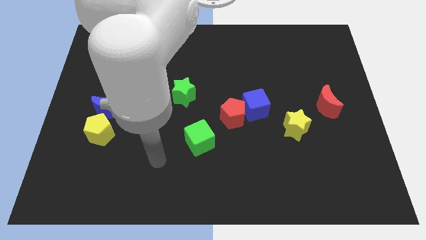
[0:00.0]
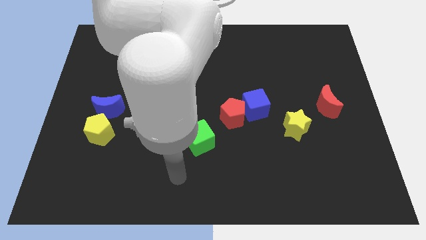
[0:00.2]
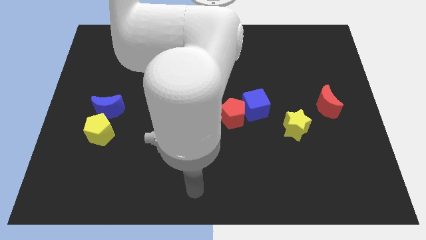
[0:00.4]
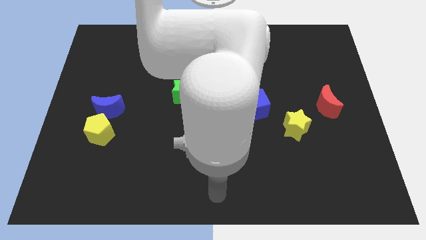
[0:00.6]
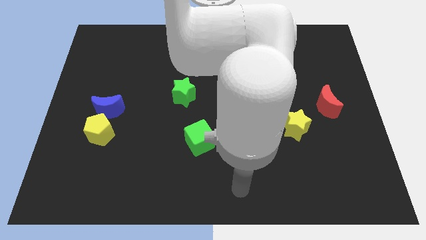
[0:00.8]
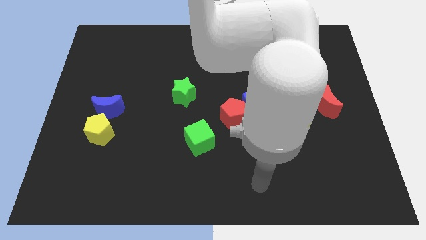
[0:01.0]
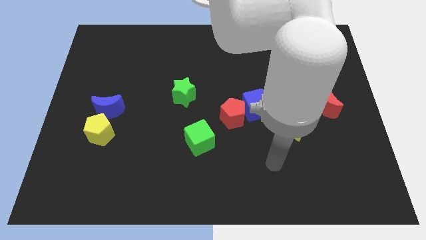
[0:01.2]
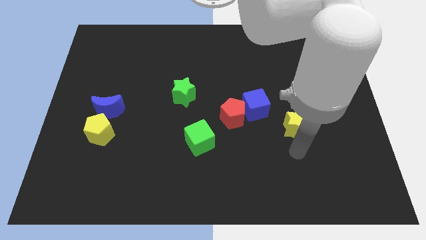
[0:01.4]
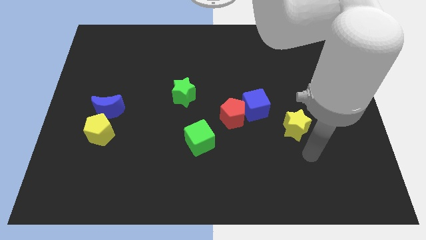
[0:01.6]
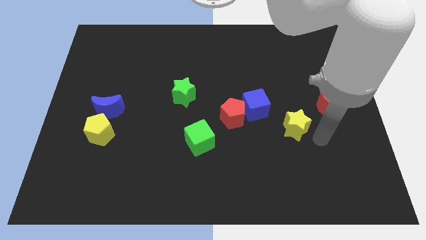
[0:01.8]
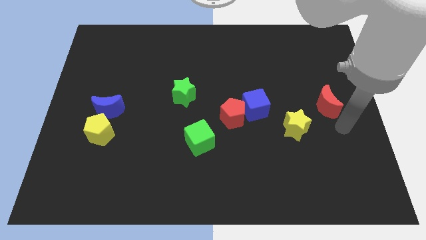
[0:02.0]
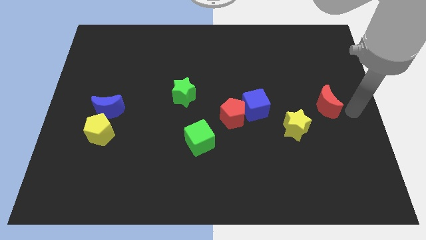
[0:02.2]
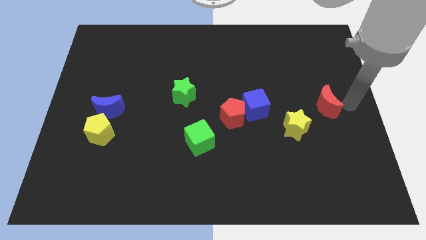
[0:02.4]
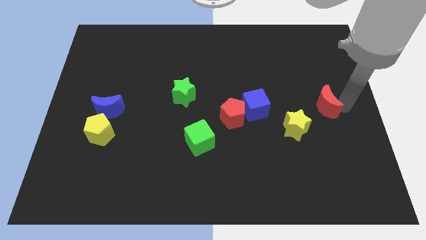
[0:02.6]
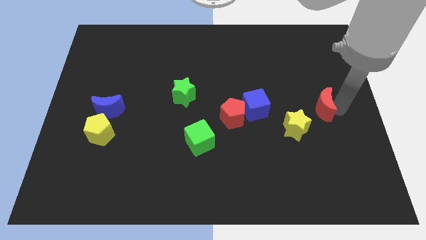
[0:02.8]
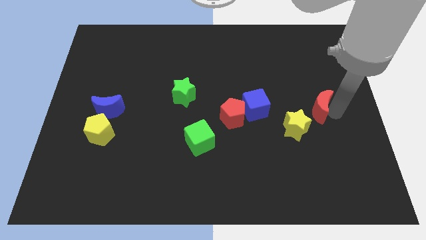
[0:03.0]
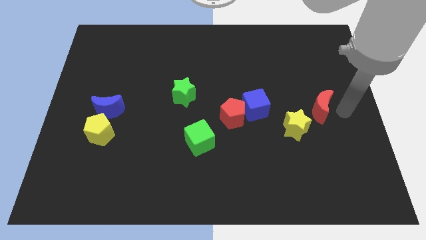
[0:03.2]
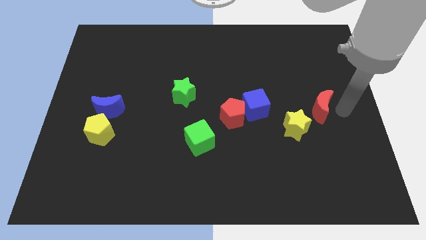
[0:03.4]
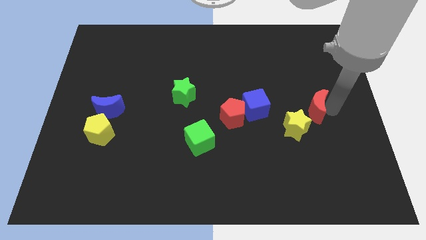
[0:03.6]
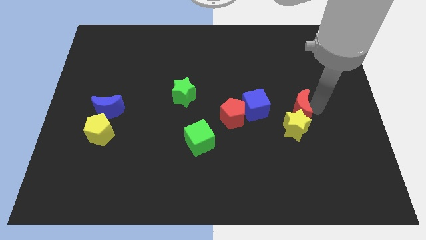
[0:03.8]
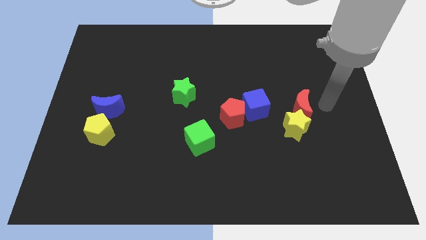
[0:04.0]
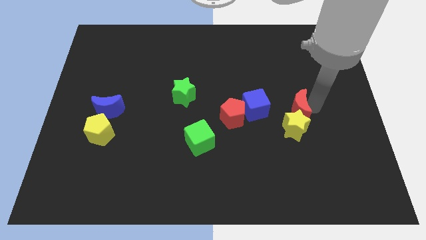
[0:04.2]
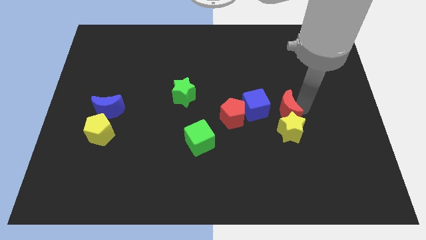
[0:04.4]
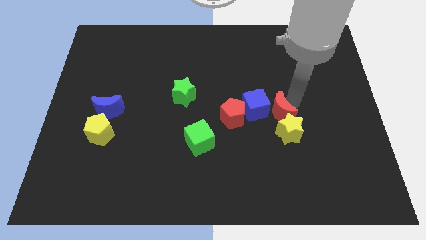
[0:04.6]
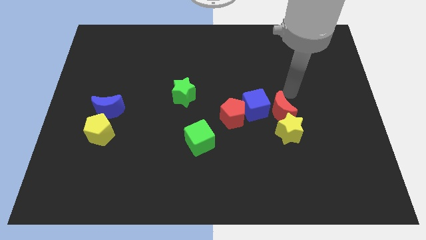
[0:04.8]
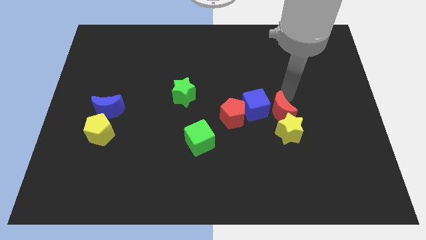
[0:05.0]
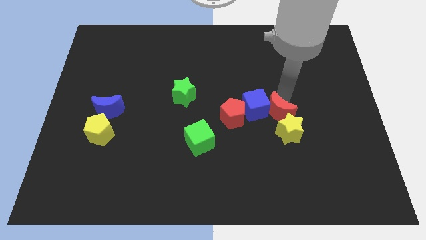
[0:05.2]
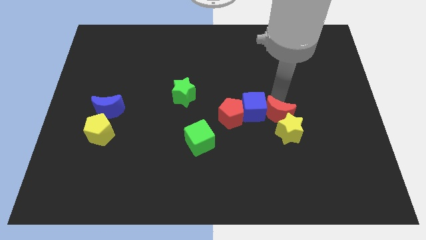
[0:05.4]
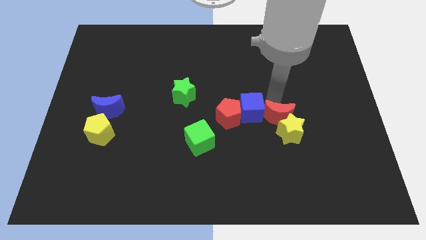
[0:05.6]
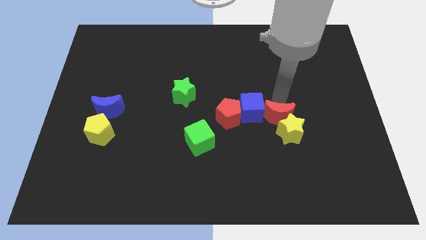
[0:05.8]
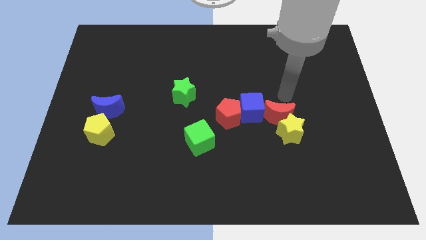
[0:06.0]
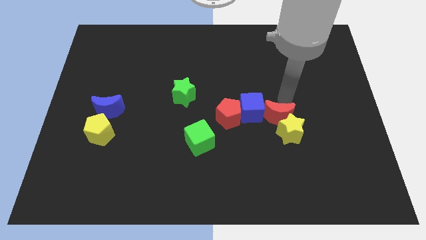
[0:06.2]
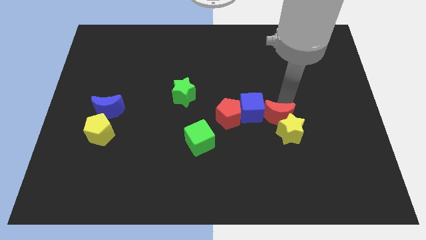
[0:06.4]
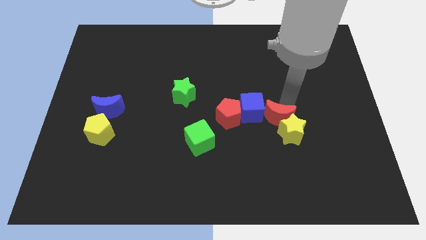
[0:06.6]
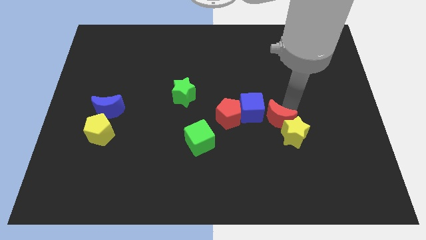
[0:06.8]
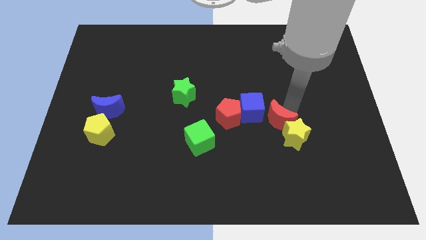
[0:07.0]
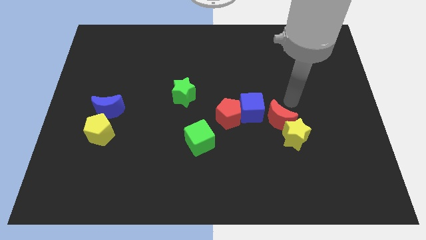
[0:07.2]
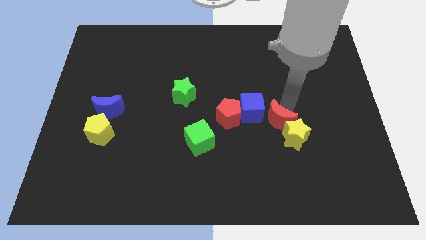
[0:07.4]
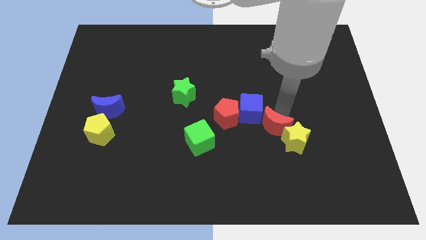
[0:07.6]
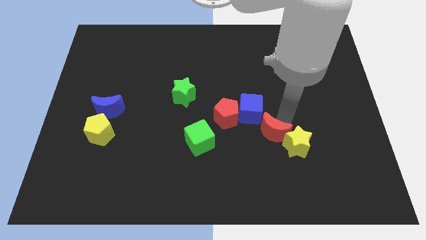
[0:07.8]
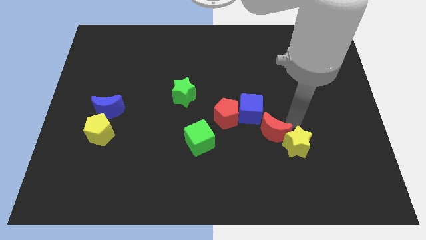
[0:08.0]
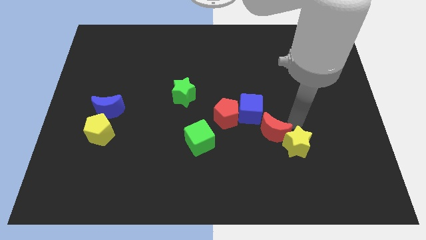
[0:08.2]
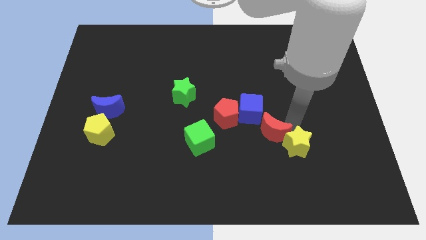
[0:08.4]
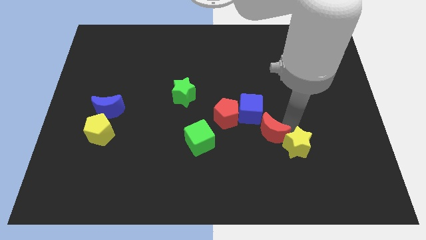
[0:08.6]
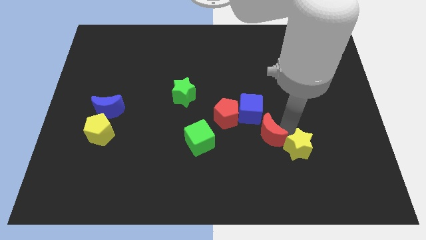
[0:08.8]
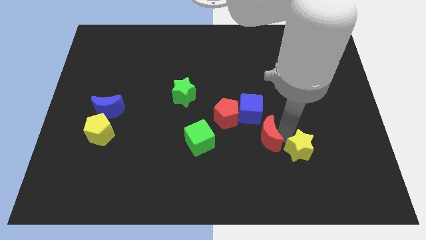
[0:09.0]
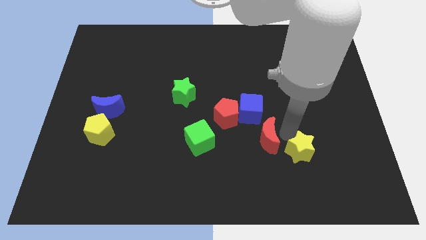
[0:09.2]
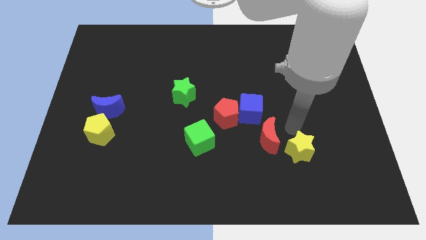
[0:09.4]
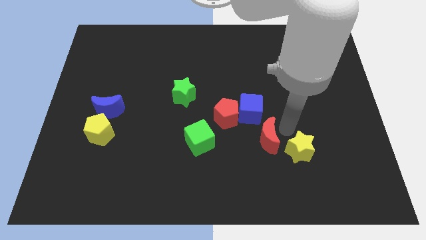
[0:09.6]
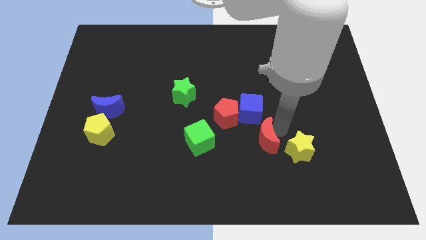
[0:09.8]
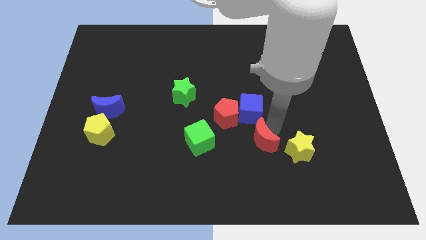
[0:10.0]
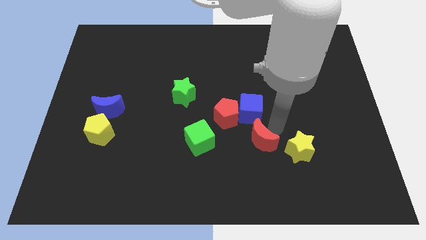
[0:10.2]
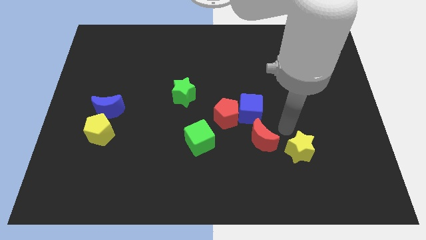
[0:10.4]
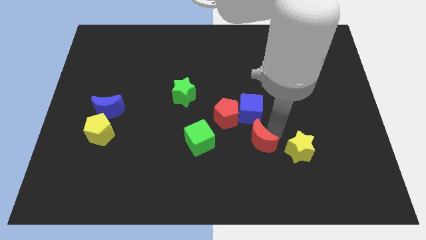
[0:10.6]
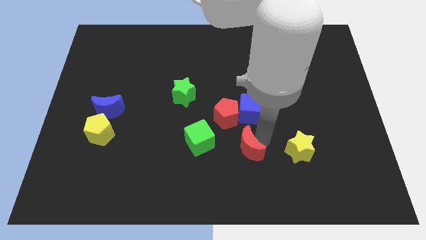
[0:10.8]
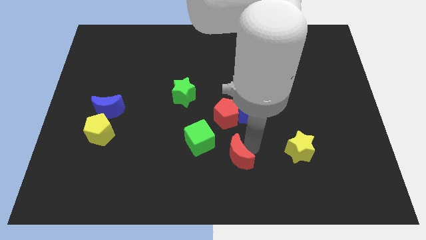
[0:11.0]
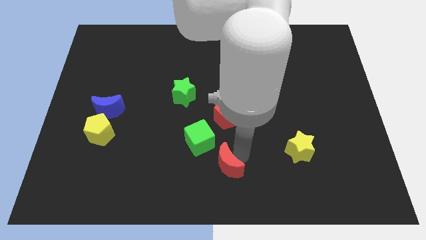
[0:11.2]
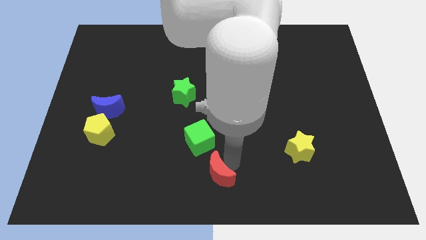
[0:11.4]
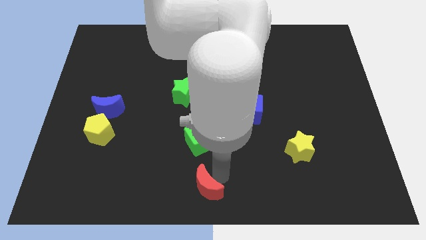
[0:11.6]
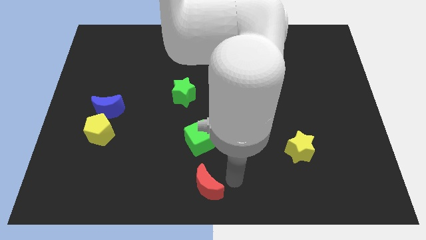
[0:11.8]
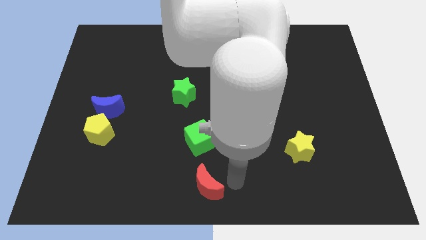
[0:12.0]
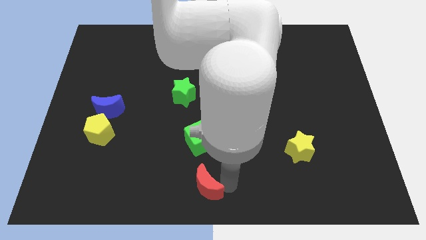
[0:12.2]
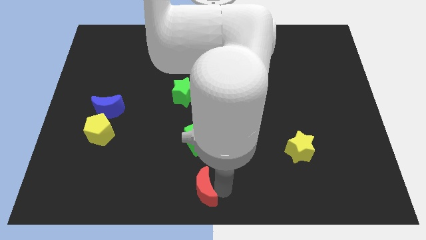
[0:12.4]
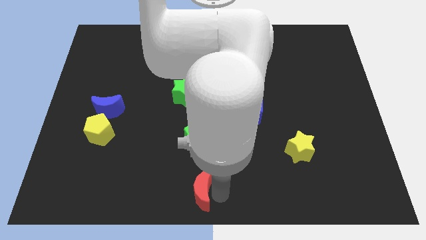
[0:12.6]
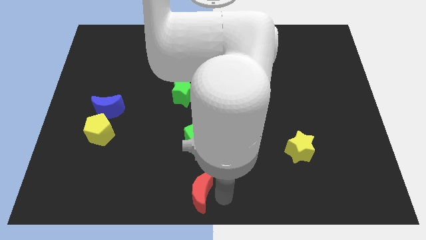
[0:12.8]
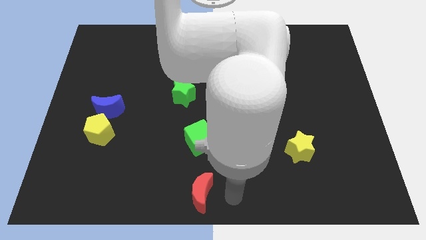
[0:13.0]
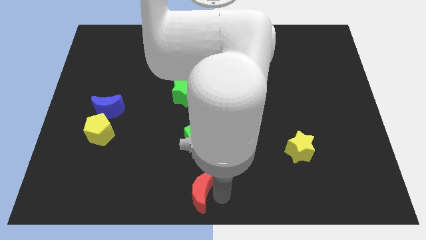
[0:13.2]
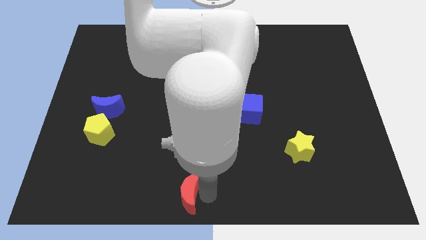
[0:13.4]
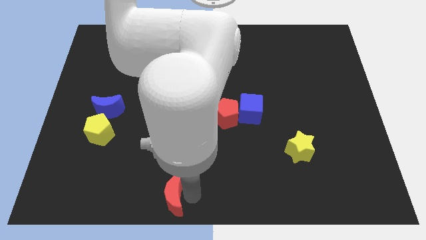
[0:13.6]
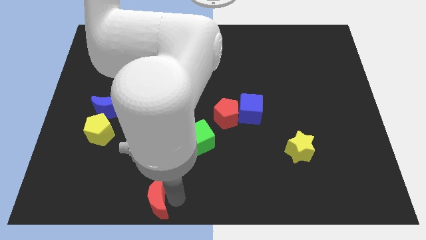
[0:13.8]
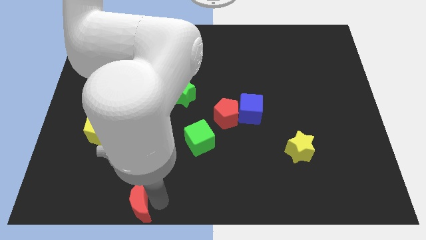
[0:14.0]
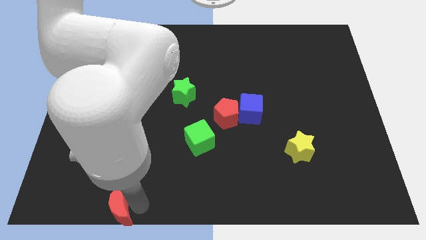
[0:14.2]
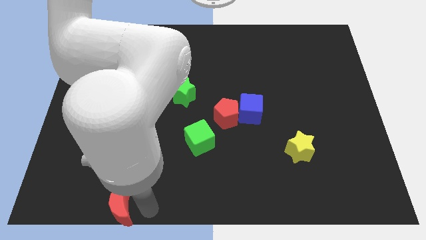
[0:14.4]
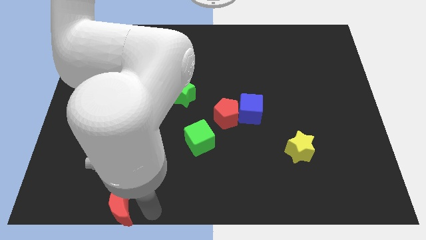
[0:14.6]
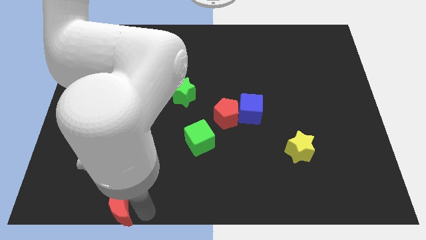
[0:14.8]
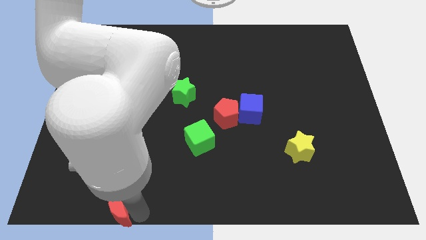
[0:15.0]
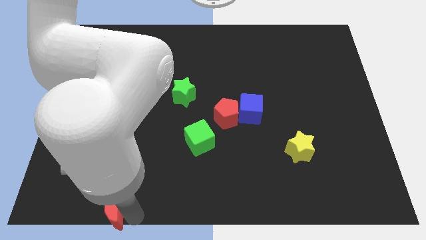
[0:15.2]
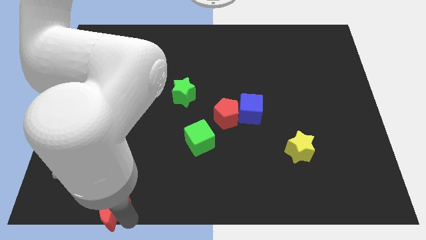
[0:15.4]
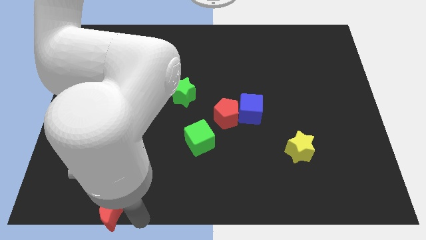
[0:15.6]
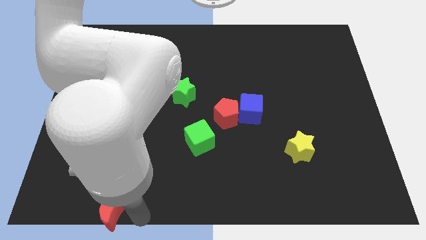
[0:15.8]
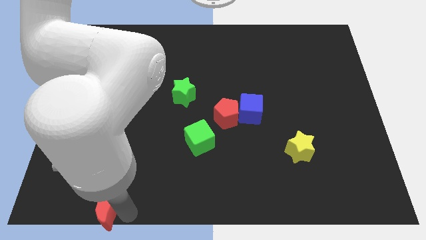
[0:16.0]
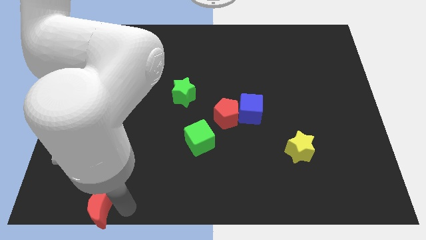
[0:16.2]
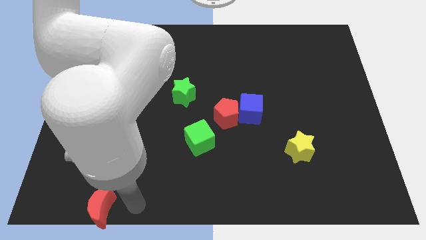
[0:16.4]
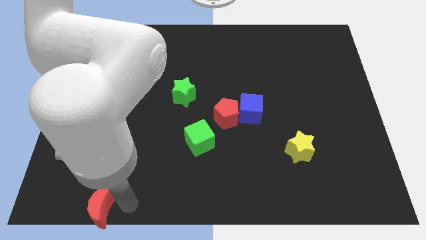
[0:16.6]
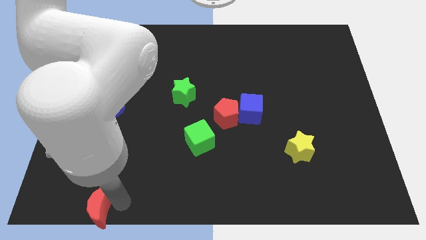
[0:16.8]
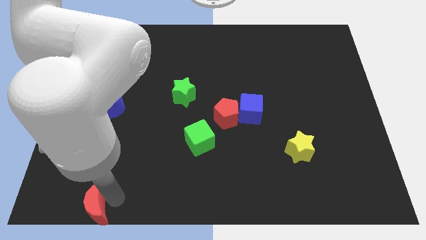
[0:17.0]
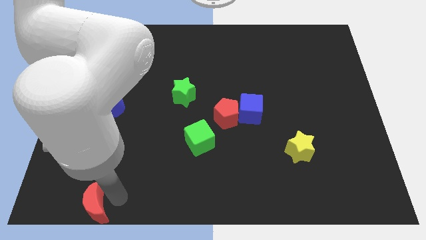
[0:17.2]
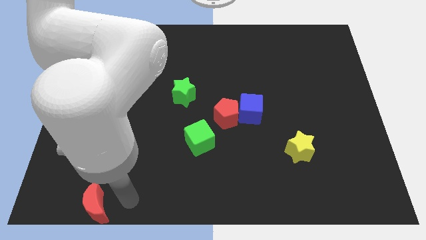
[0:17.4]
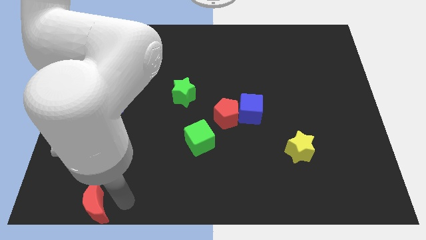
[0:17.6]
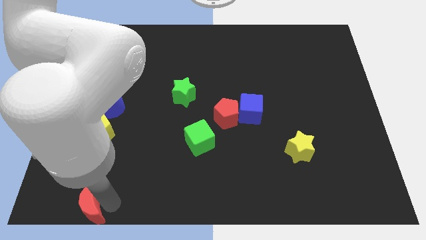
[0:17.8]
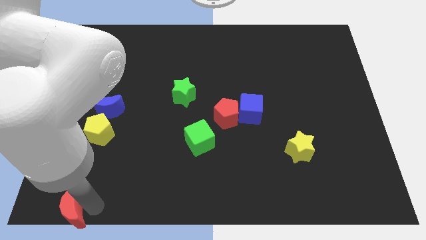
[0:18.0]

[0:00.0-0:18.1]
push the red moon to the bottom left
